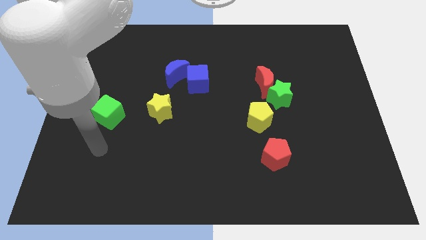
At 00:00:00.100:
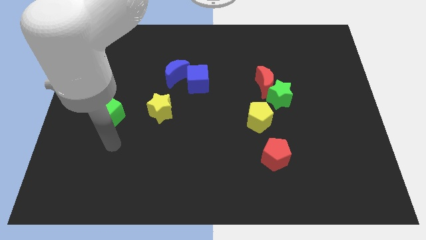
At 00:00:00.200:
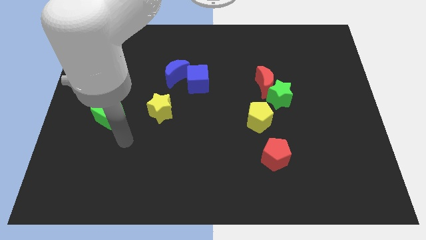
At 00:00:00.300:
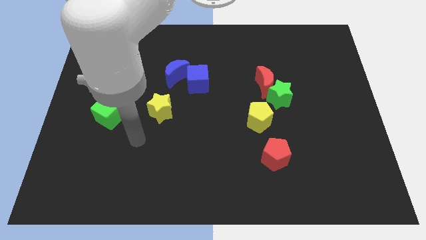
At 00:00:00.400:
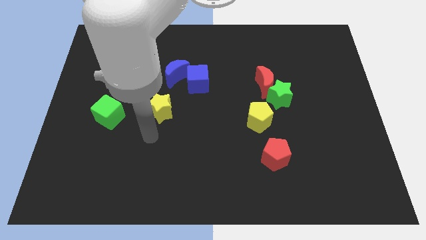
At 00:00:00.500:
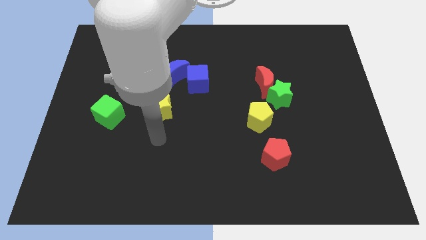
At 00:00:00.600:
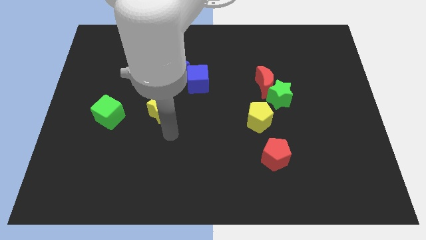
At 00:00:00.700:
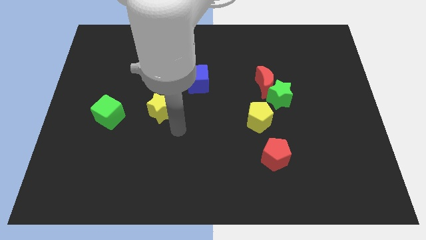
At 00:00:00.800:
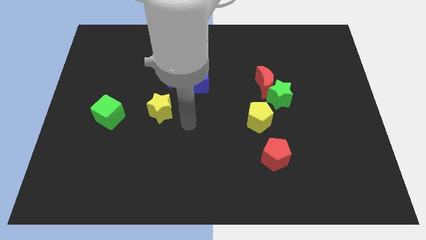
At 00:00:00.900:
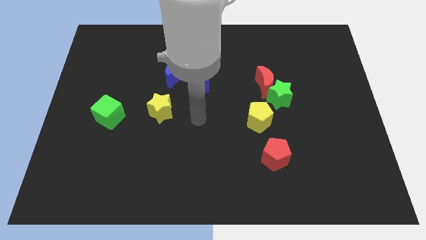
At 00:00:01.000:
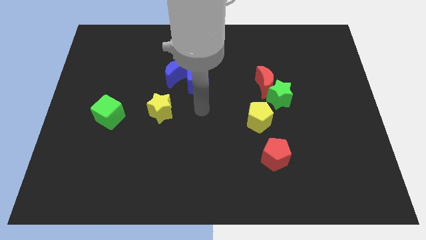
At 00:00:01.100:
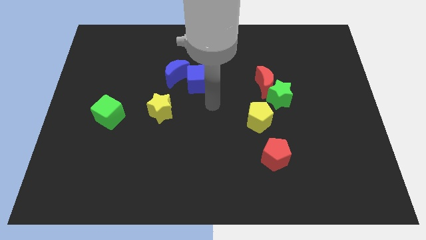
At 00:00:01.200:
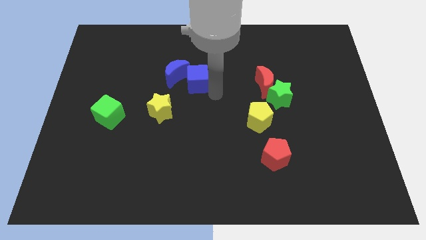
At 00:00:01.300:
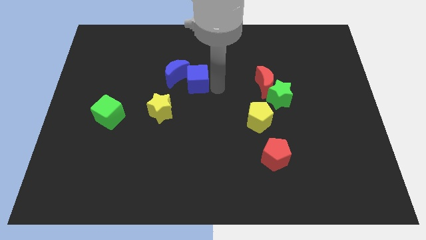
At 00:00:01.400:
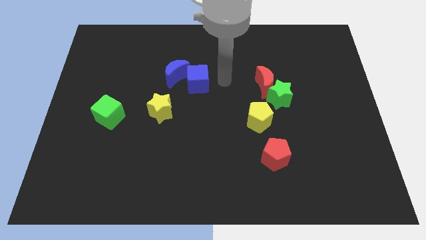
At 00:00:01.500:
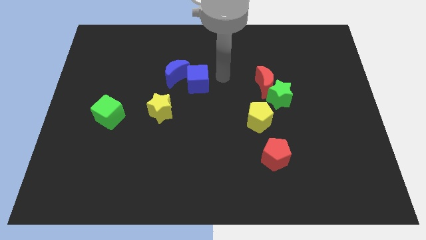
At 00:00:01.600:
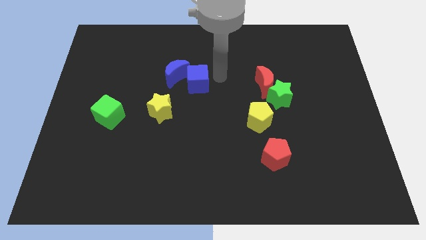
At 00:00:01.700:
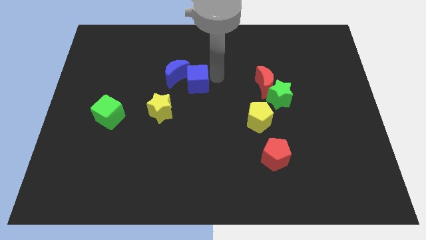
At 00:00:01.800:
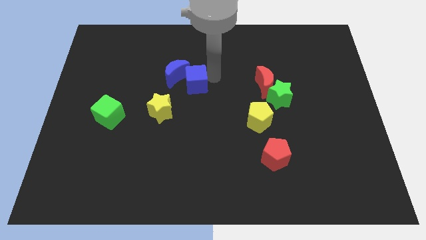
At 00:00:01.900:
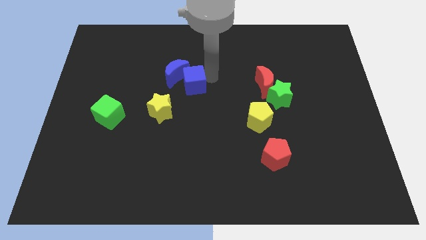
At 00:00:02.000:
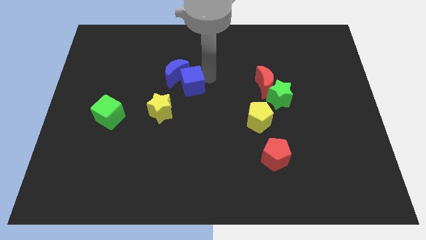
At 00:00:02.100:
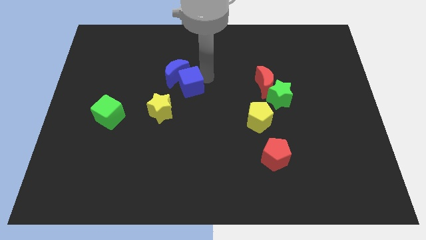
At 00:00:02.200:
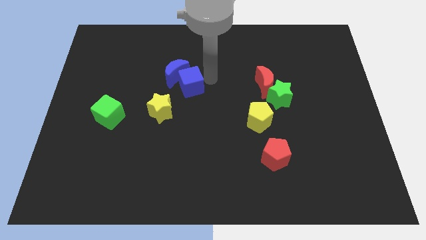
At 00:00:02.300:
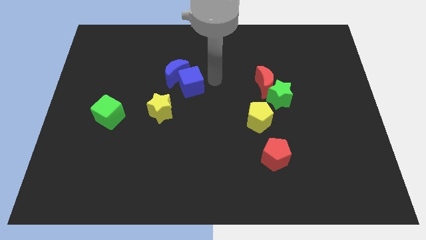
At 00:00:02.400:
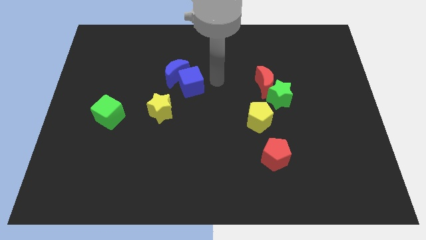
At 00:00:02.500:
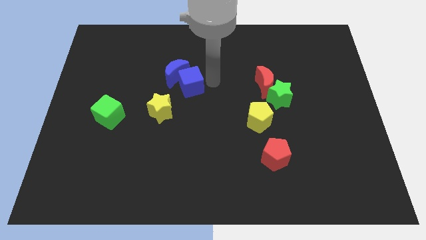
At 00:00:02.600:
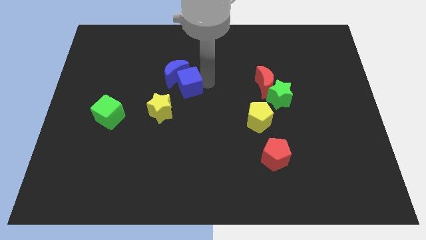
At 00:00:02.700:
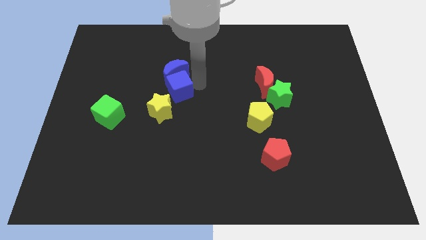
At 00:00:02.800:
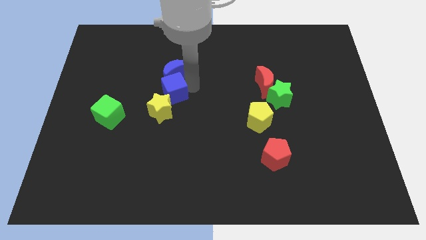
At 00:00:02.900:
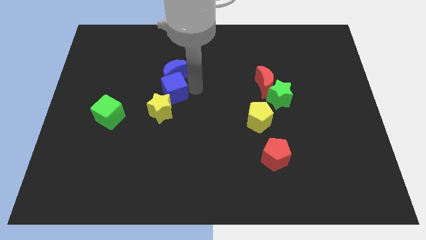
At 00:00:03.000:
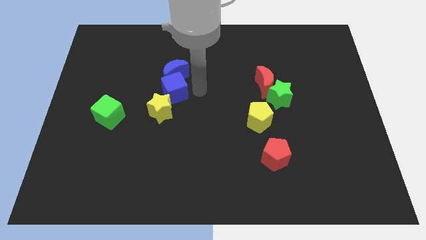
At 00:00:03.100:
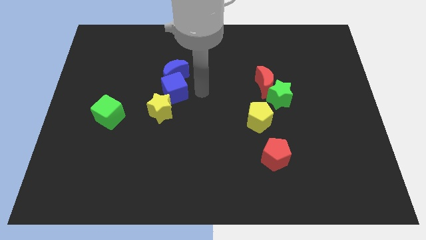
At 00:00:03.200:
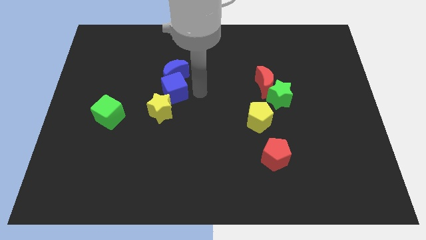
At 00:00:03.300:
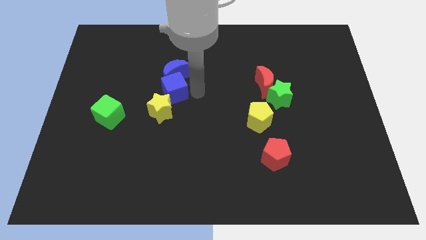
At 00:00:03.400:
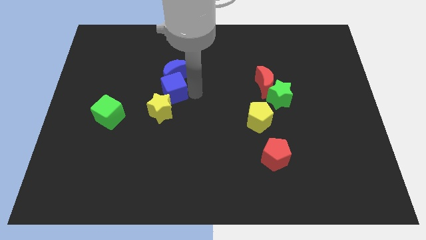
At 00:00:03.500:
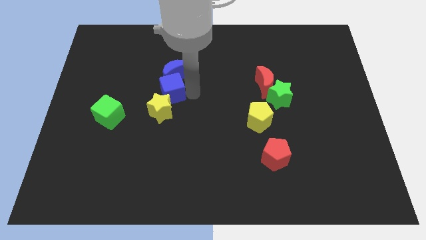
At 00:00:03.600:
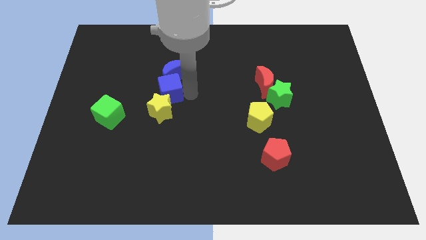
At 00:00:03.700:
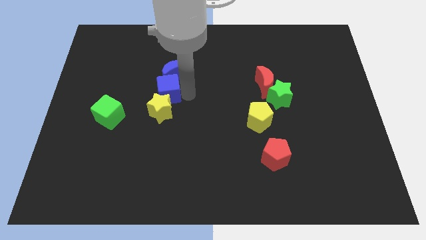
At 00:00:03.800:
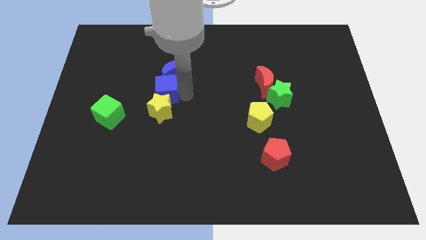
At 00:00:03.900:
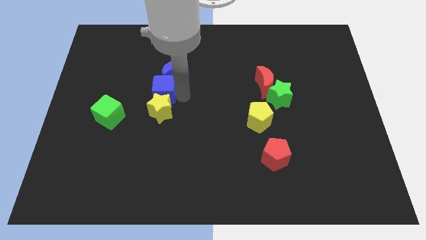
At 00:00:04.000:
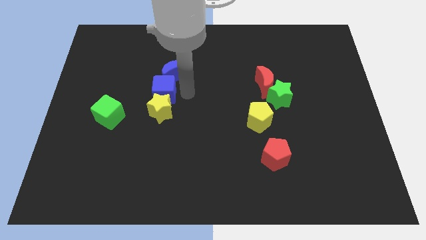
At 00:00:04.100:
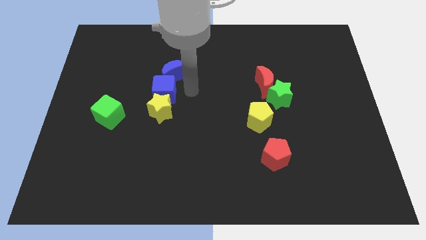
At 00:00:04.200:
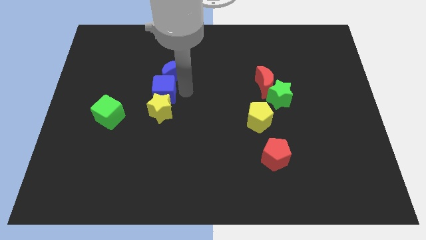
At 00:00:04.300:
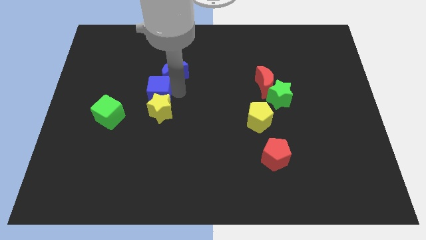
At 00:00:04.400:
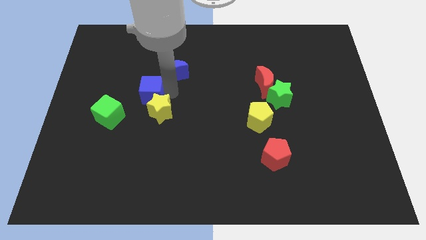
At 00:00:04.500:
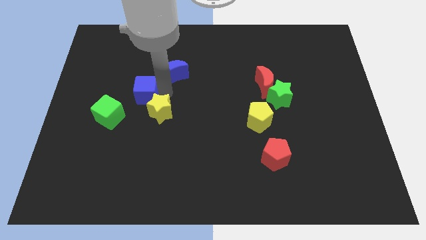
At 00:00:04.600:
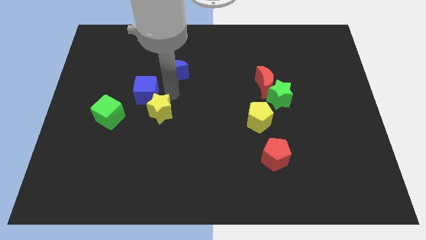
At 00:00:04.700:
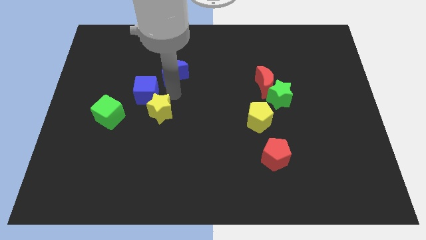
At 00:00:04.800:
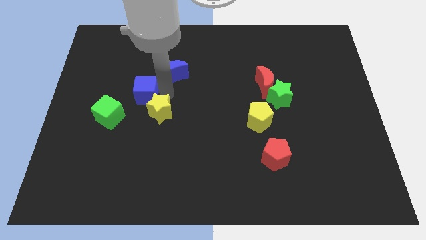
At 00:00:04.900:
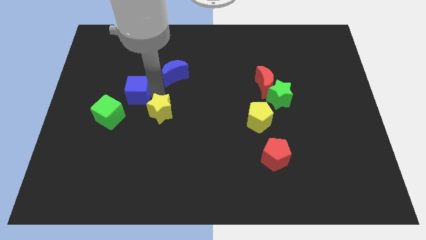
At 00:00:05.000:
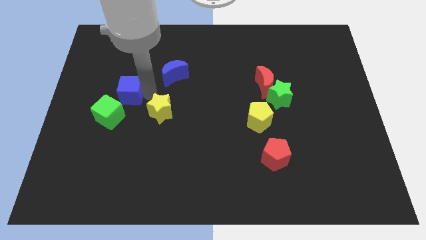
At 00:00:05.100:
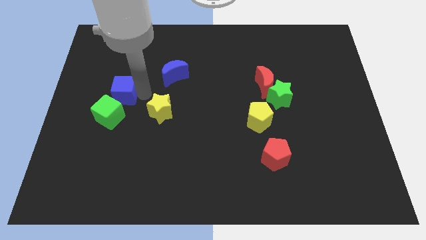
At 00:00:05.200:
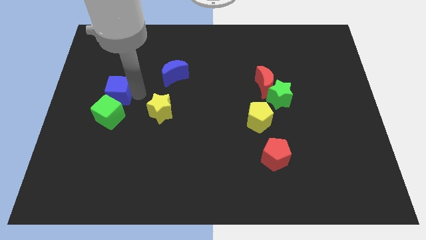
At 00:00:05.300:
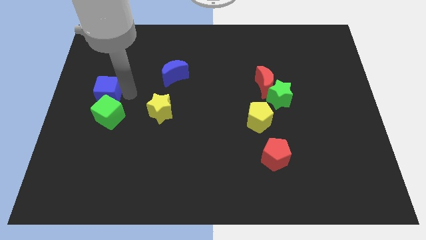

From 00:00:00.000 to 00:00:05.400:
put the blue cube to the left side of the board

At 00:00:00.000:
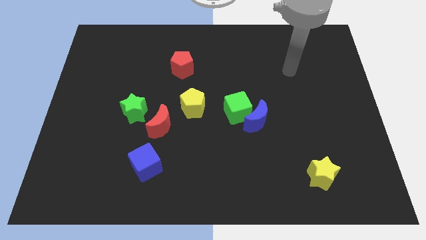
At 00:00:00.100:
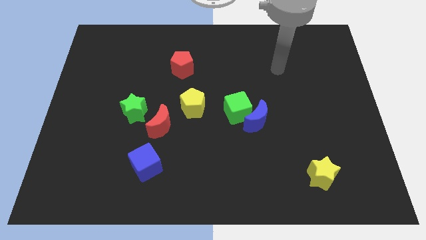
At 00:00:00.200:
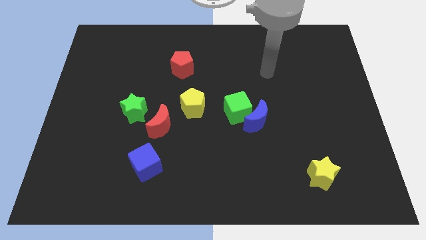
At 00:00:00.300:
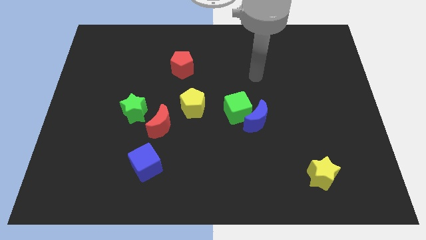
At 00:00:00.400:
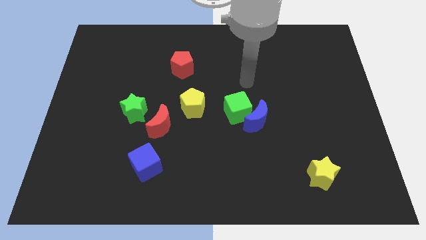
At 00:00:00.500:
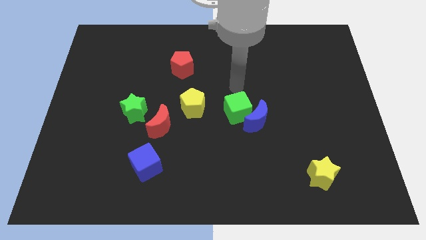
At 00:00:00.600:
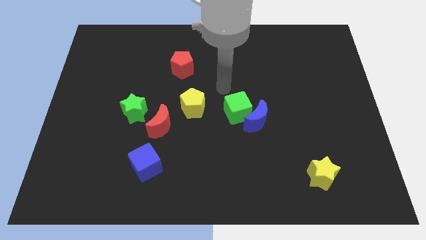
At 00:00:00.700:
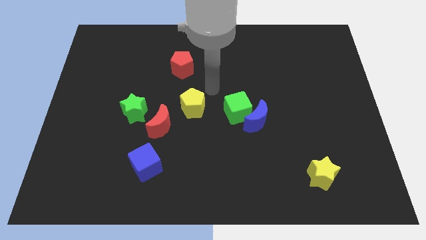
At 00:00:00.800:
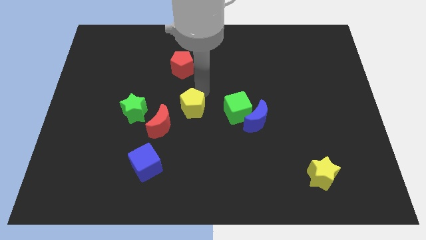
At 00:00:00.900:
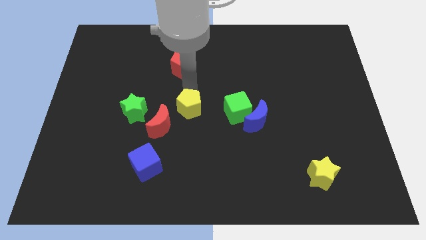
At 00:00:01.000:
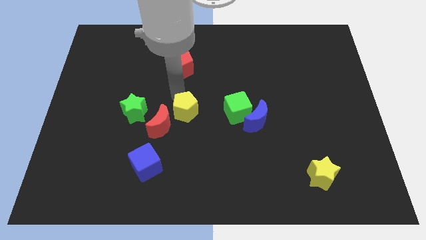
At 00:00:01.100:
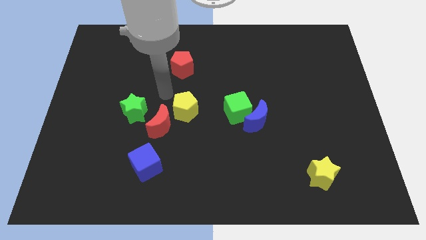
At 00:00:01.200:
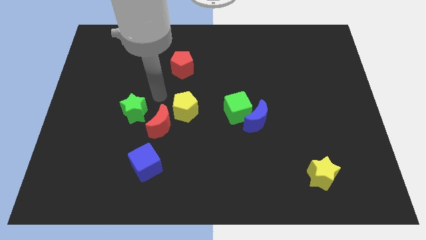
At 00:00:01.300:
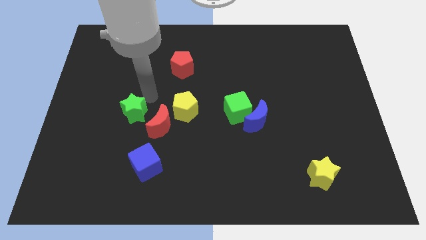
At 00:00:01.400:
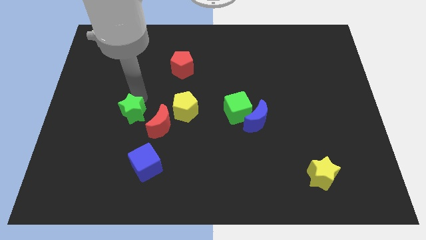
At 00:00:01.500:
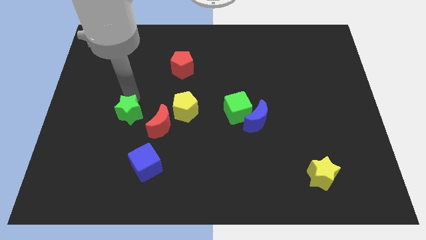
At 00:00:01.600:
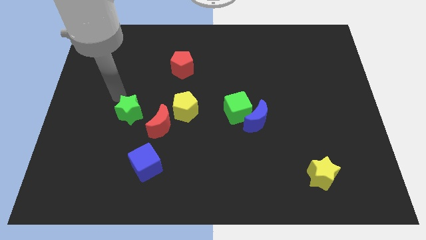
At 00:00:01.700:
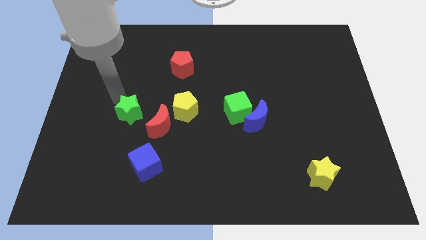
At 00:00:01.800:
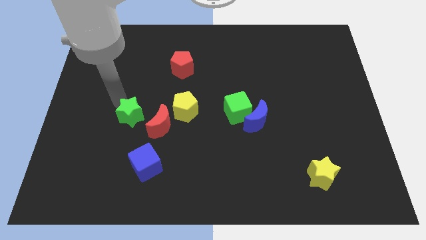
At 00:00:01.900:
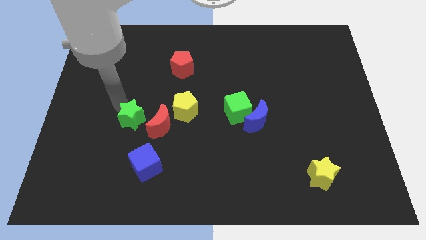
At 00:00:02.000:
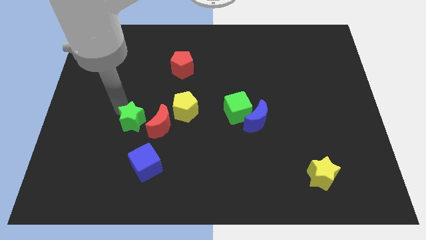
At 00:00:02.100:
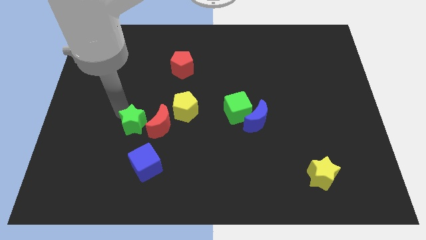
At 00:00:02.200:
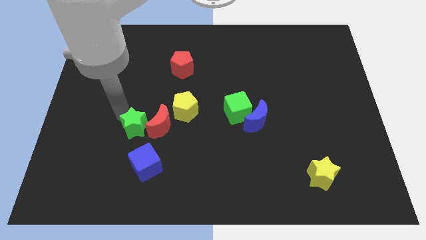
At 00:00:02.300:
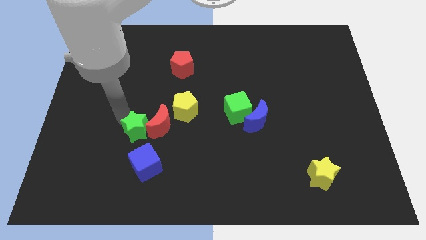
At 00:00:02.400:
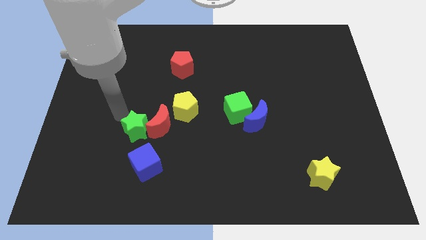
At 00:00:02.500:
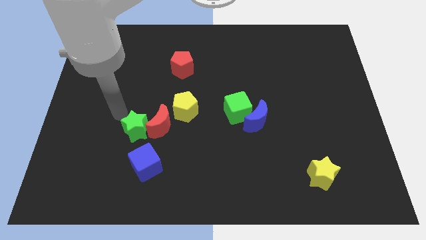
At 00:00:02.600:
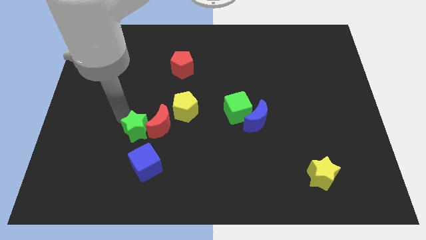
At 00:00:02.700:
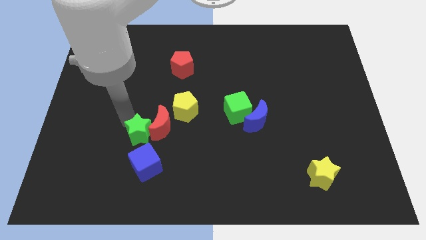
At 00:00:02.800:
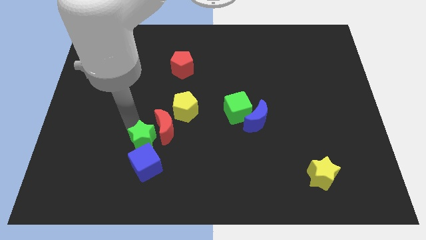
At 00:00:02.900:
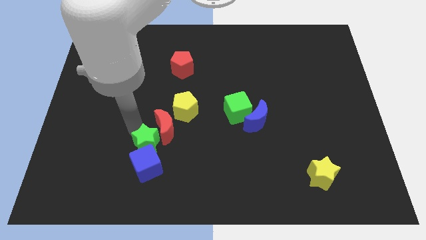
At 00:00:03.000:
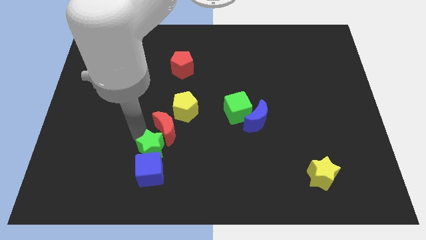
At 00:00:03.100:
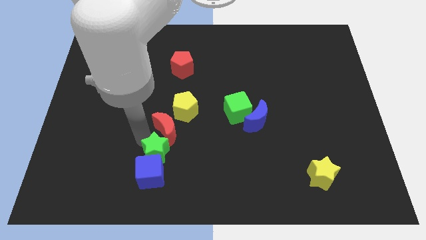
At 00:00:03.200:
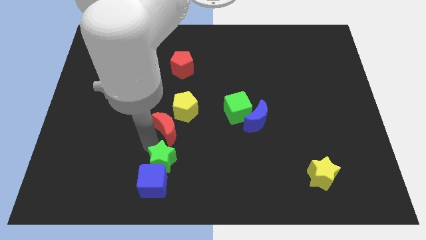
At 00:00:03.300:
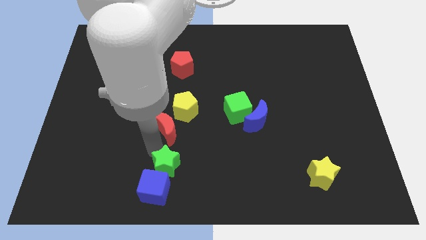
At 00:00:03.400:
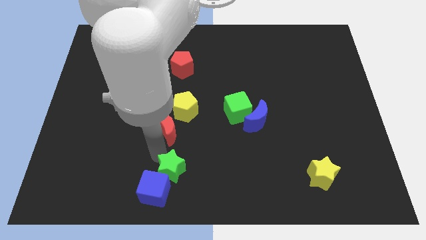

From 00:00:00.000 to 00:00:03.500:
push the green star to the bottom
